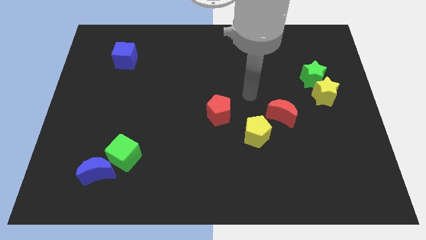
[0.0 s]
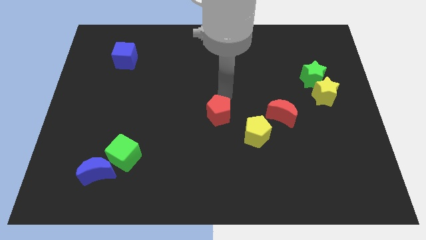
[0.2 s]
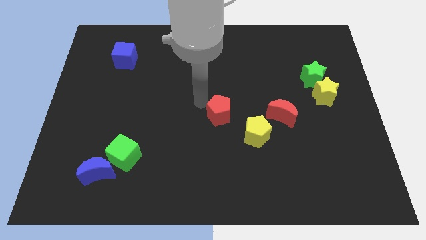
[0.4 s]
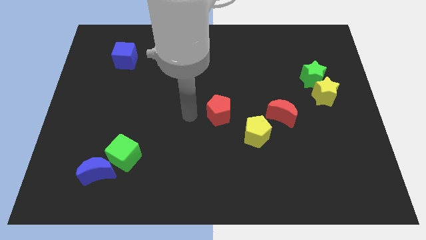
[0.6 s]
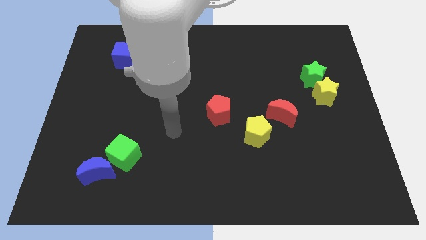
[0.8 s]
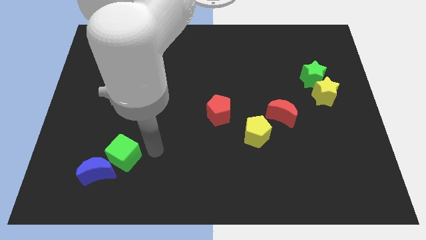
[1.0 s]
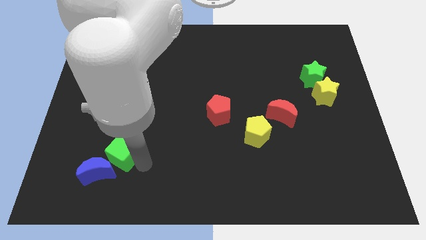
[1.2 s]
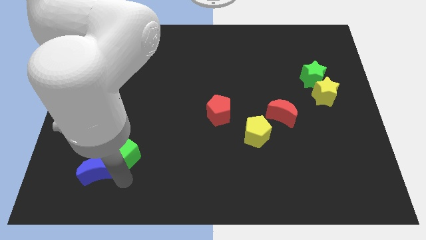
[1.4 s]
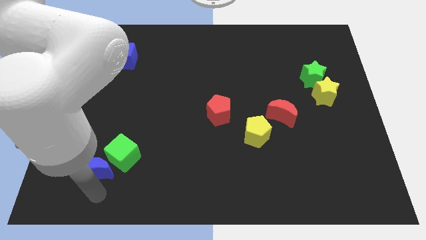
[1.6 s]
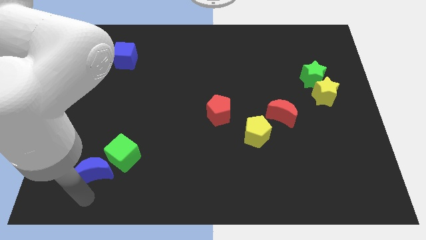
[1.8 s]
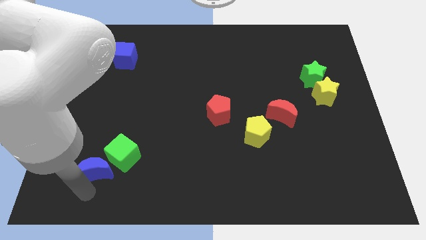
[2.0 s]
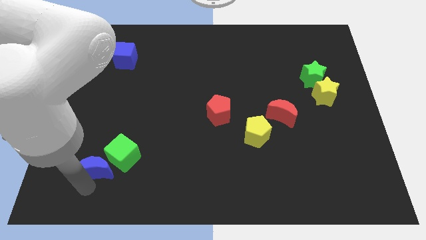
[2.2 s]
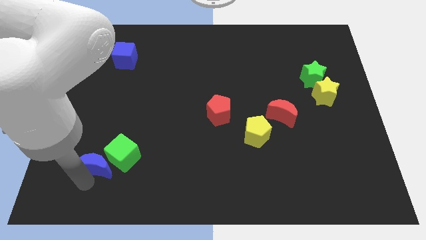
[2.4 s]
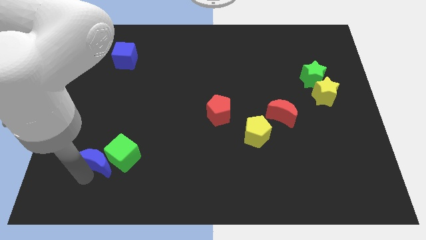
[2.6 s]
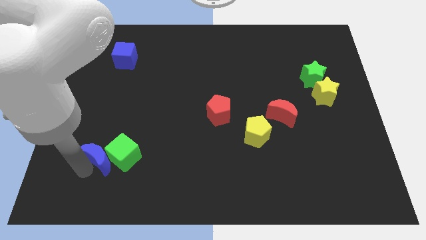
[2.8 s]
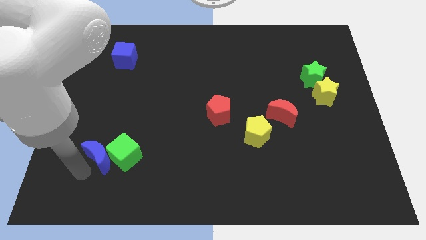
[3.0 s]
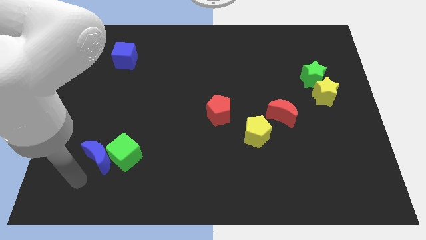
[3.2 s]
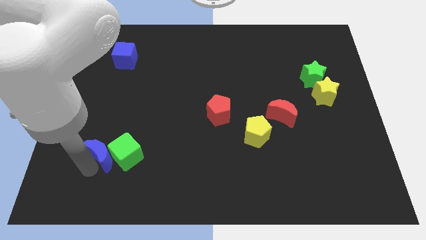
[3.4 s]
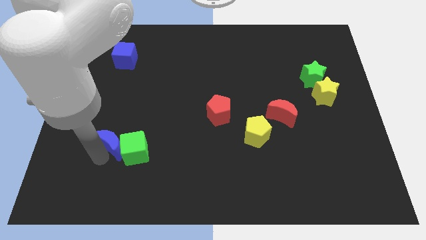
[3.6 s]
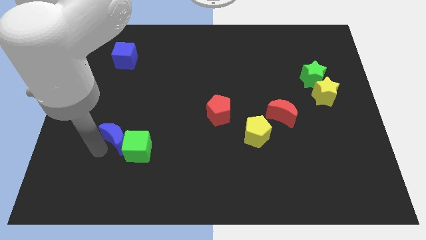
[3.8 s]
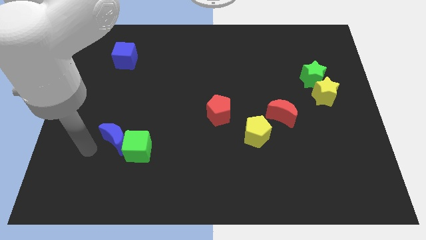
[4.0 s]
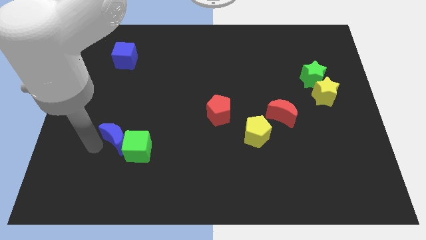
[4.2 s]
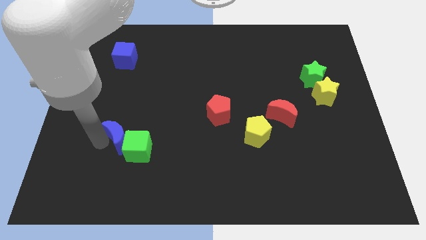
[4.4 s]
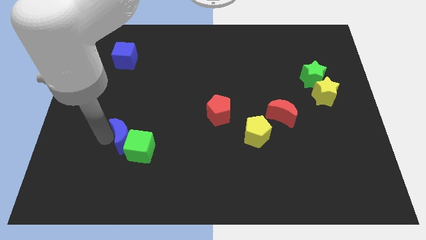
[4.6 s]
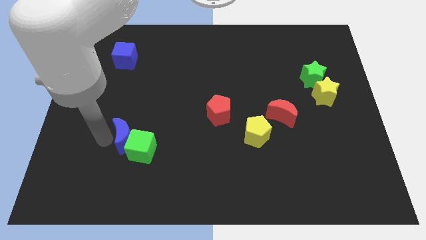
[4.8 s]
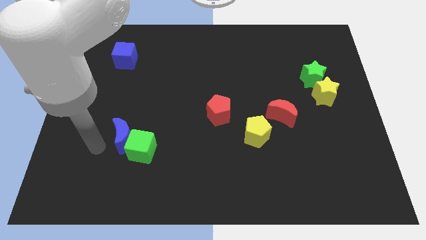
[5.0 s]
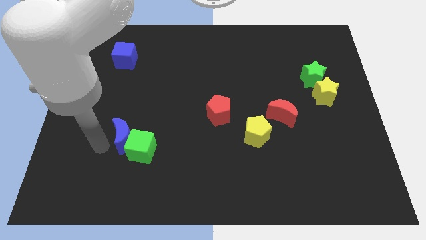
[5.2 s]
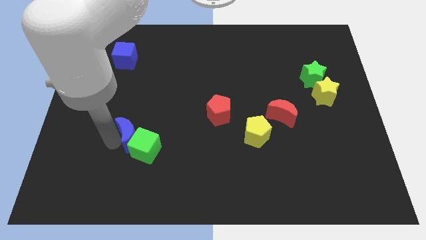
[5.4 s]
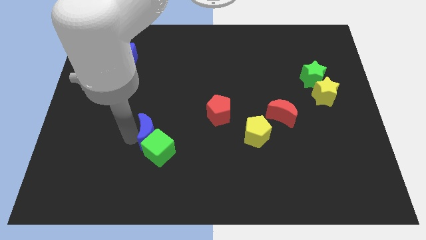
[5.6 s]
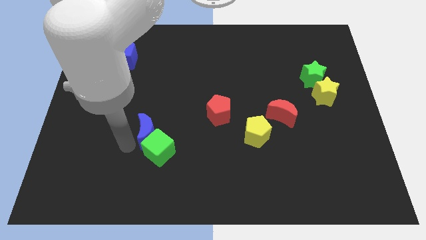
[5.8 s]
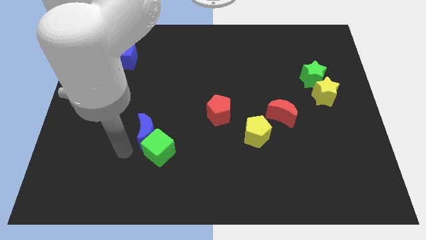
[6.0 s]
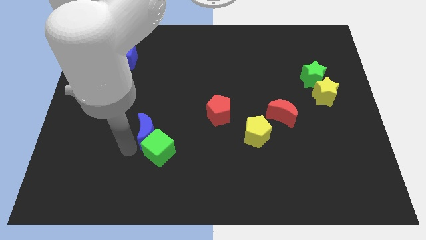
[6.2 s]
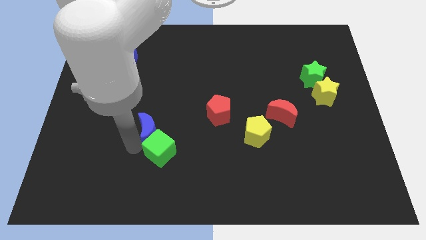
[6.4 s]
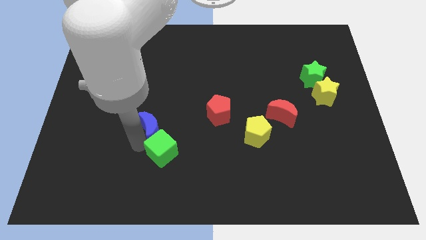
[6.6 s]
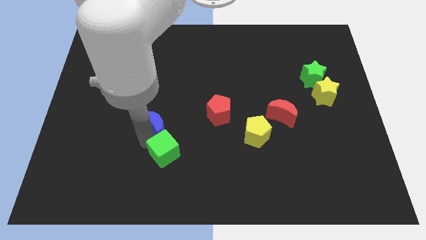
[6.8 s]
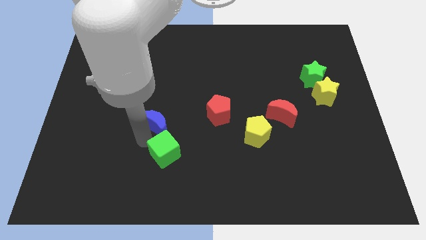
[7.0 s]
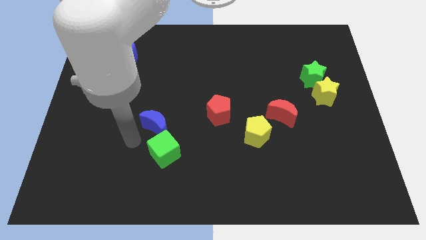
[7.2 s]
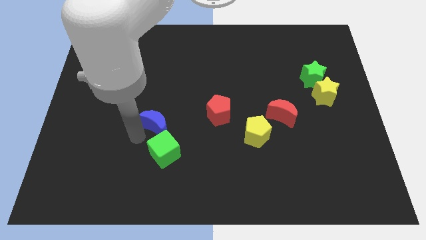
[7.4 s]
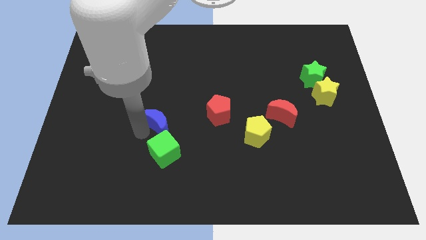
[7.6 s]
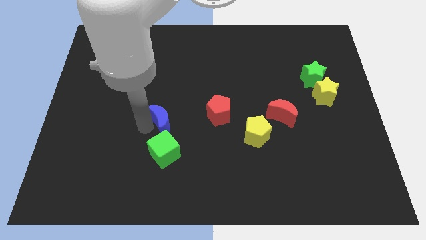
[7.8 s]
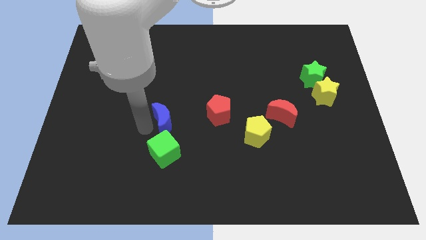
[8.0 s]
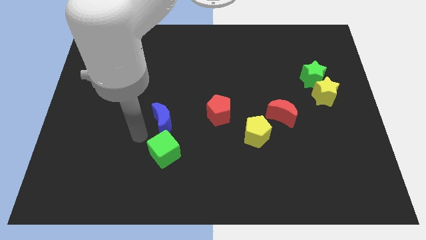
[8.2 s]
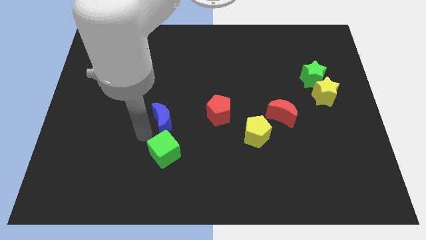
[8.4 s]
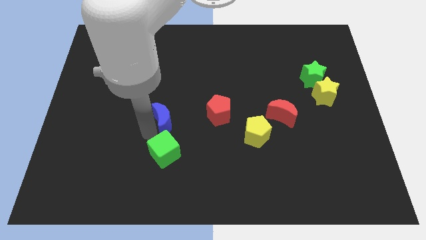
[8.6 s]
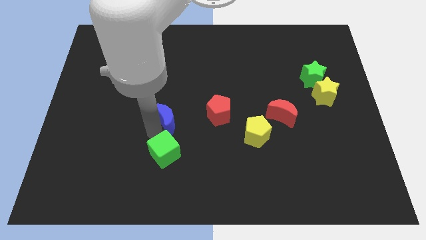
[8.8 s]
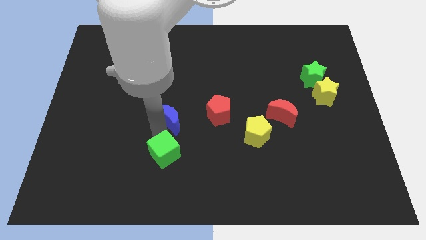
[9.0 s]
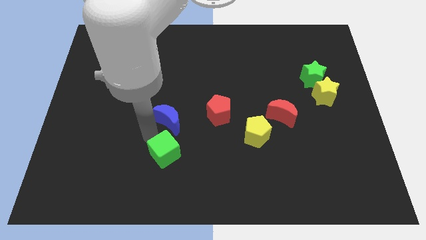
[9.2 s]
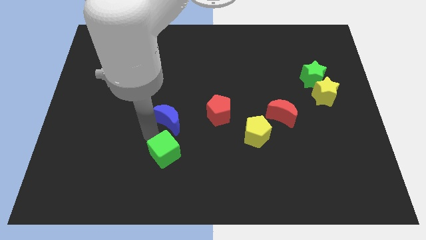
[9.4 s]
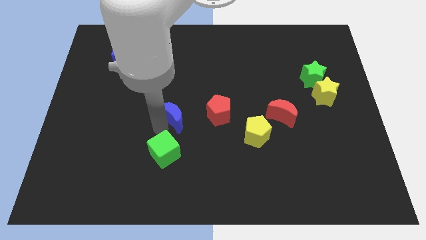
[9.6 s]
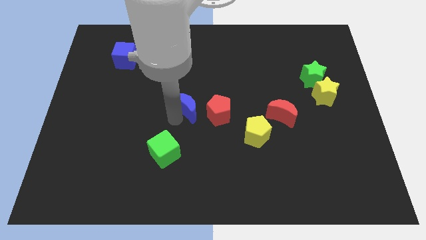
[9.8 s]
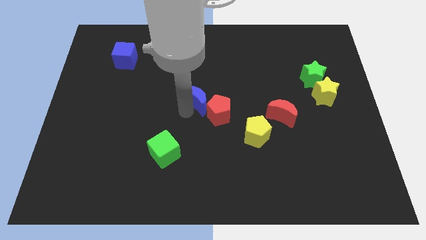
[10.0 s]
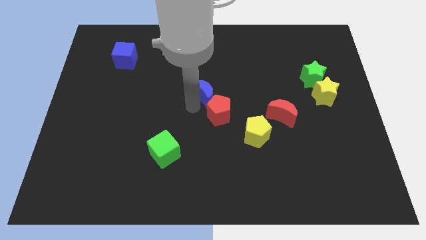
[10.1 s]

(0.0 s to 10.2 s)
move the blue moon above the red pentagon

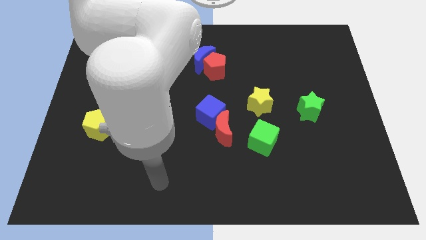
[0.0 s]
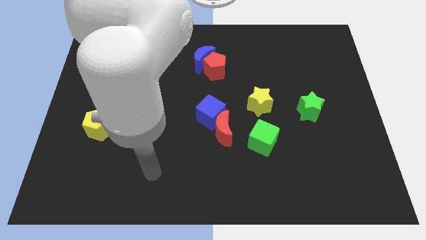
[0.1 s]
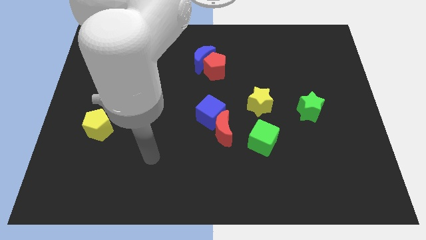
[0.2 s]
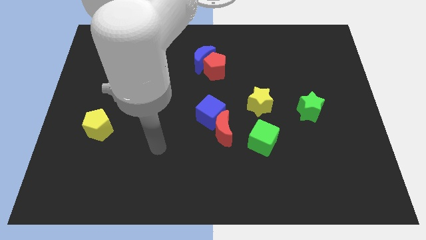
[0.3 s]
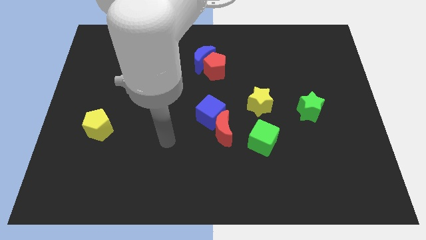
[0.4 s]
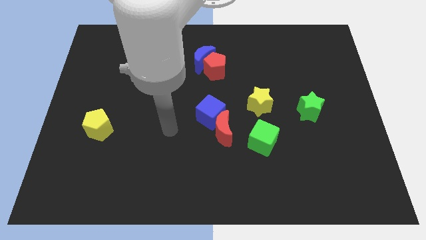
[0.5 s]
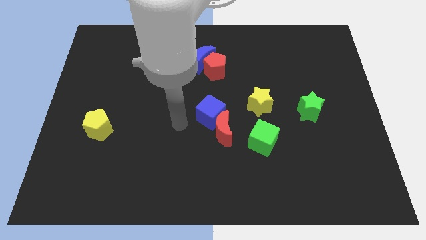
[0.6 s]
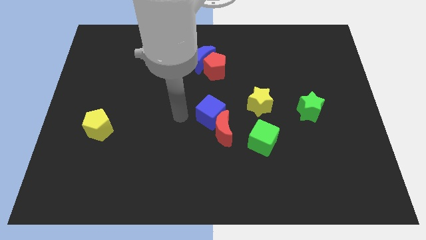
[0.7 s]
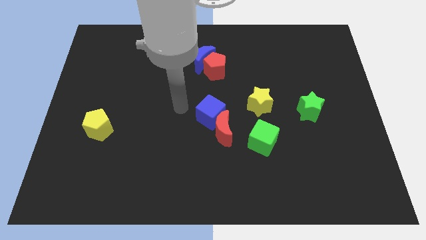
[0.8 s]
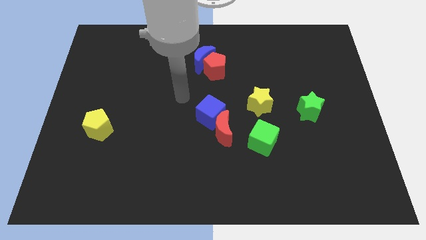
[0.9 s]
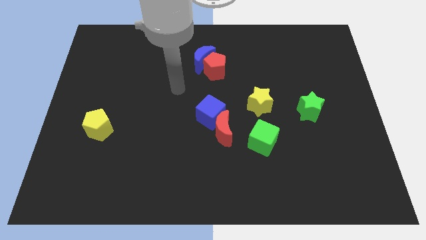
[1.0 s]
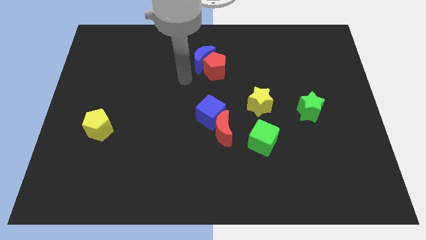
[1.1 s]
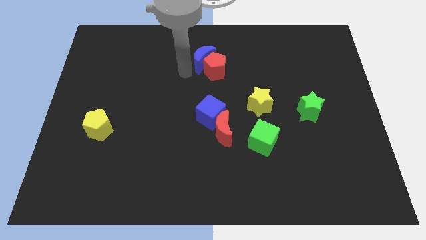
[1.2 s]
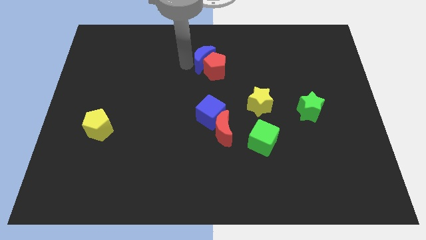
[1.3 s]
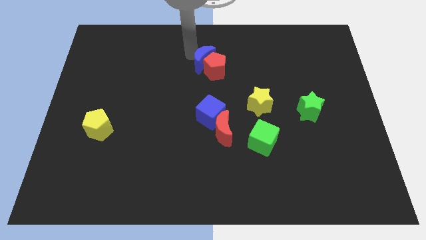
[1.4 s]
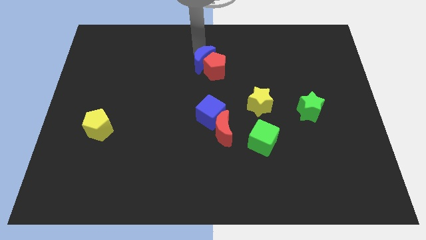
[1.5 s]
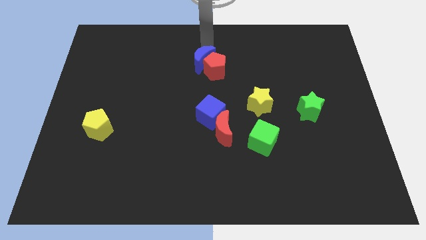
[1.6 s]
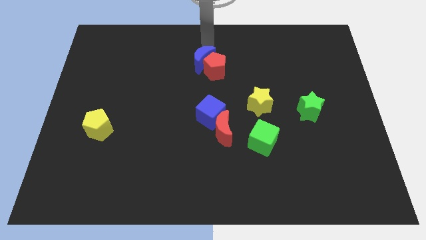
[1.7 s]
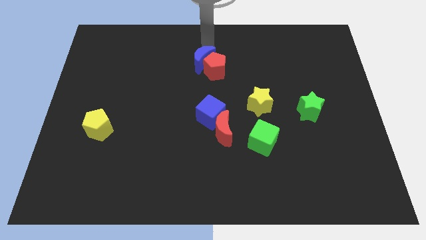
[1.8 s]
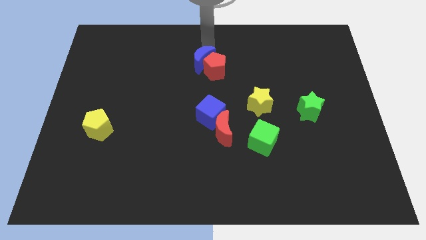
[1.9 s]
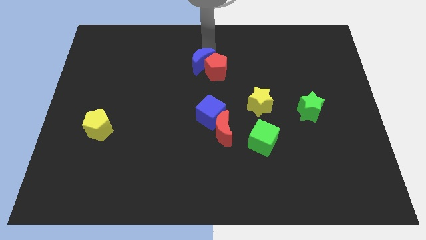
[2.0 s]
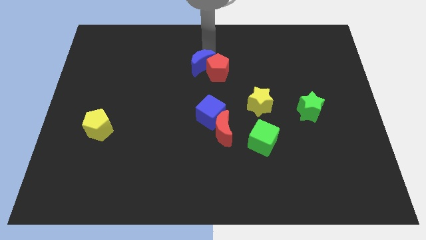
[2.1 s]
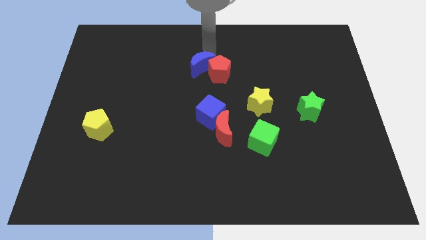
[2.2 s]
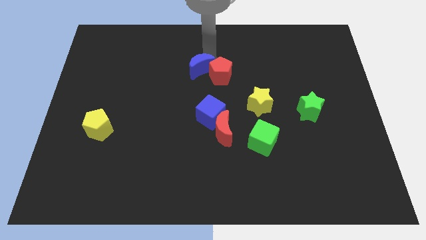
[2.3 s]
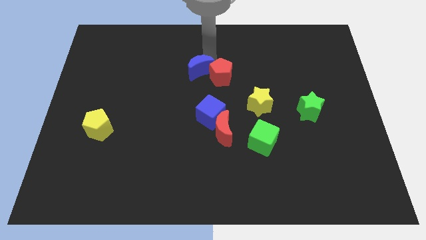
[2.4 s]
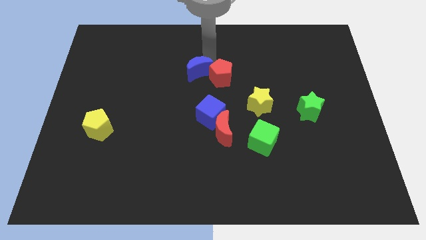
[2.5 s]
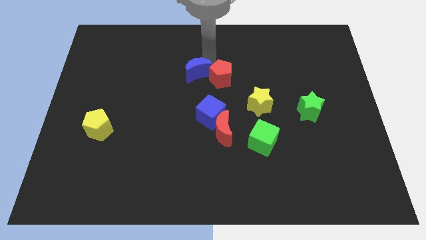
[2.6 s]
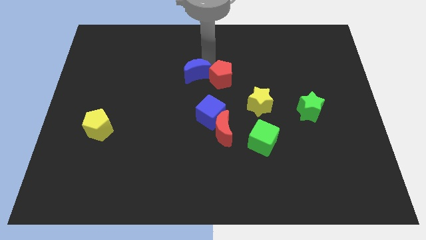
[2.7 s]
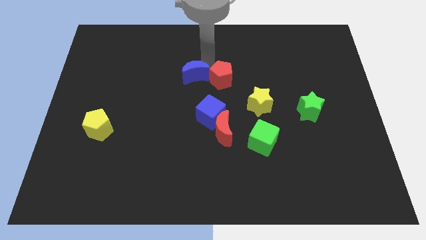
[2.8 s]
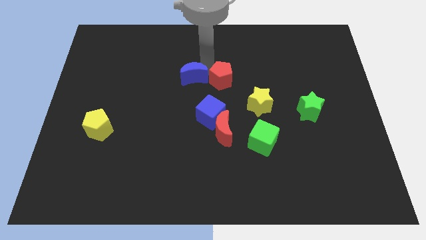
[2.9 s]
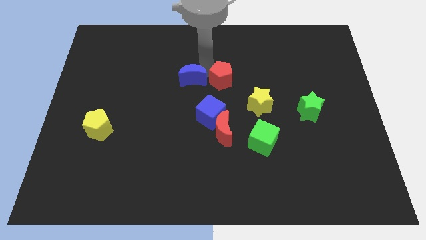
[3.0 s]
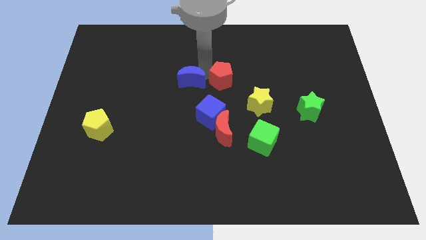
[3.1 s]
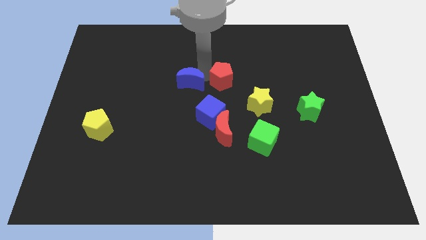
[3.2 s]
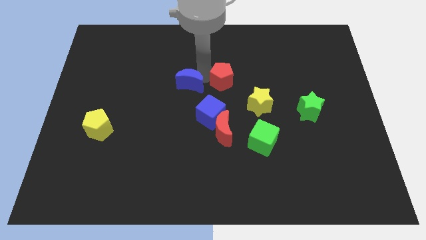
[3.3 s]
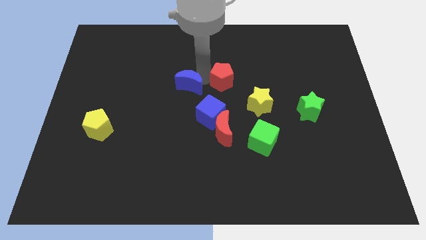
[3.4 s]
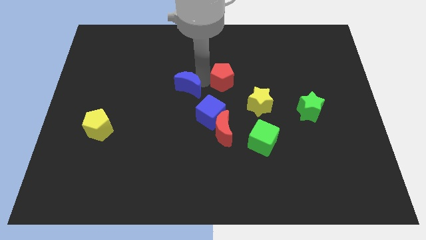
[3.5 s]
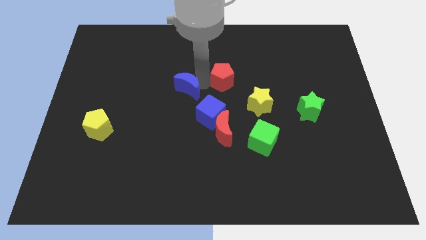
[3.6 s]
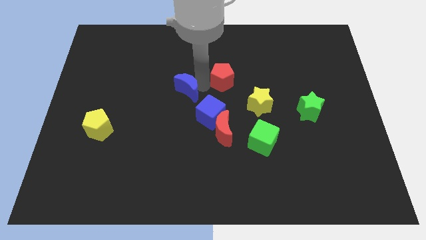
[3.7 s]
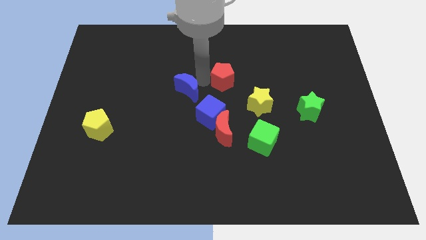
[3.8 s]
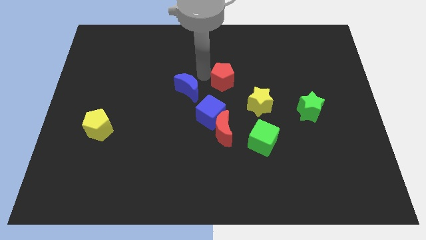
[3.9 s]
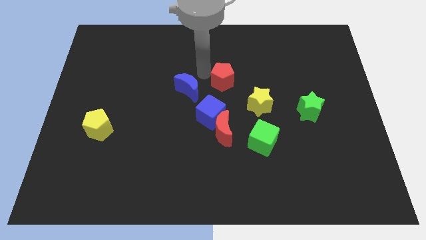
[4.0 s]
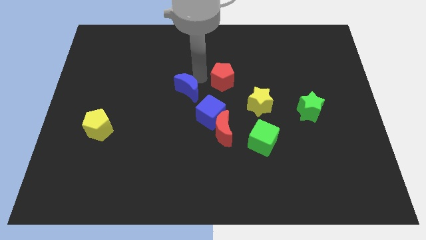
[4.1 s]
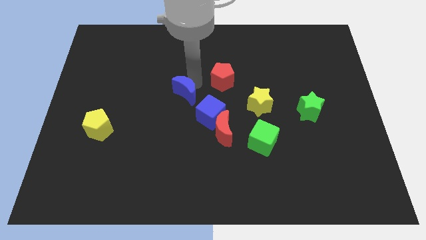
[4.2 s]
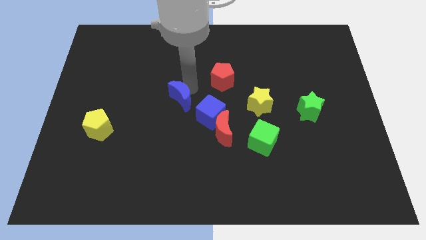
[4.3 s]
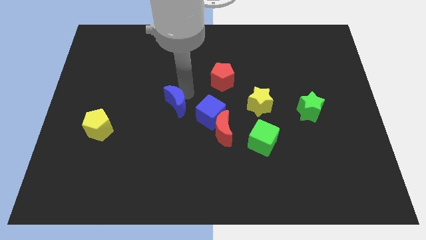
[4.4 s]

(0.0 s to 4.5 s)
put the blue moon to the left of the blue cube
